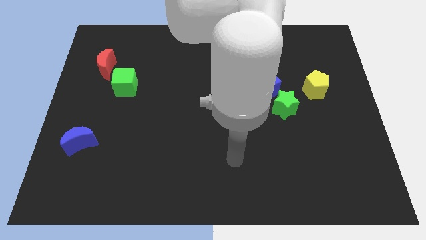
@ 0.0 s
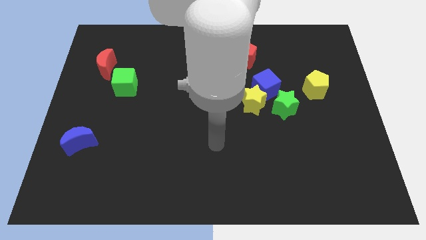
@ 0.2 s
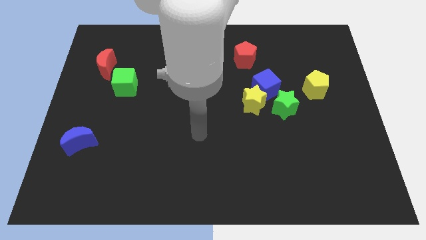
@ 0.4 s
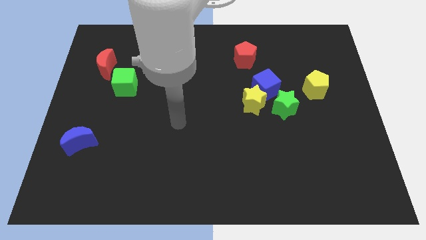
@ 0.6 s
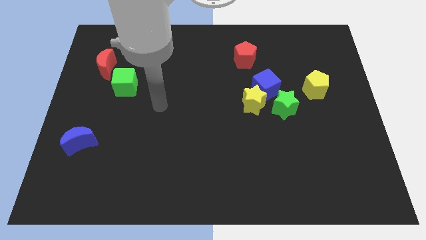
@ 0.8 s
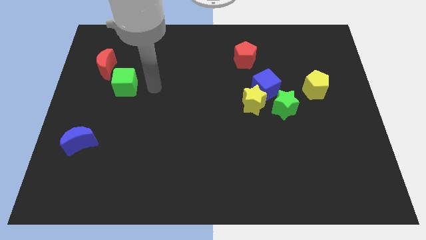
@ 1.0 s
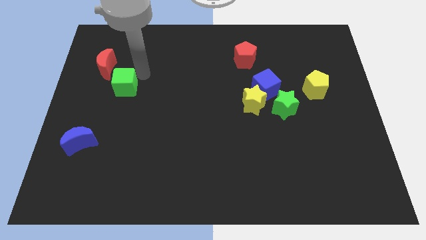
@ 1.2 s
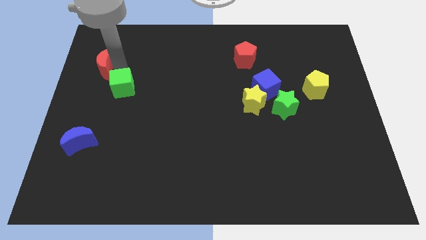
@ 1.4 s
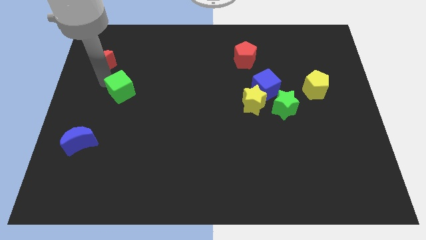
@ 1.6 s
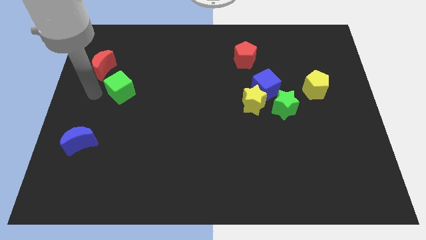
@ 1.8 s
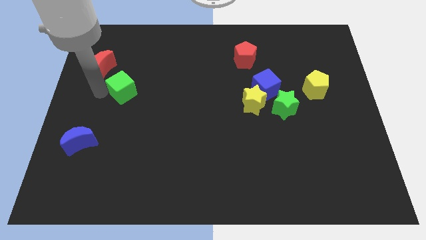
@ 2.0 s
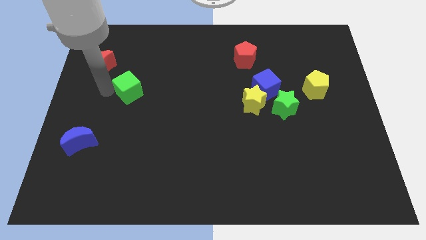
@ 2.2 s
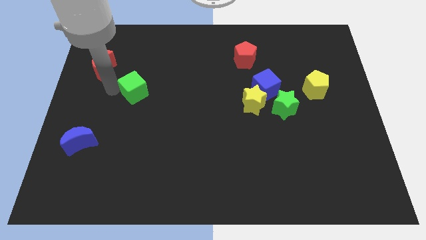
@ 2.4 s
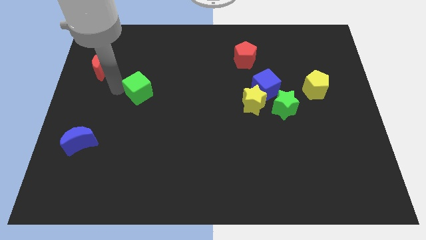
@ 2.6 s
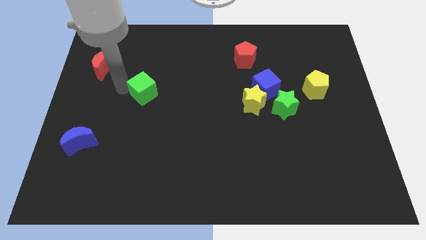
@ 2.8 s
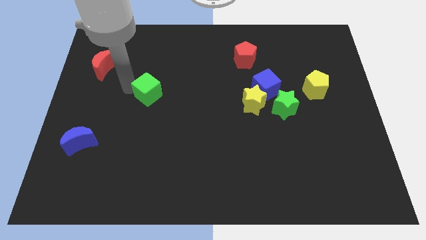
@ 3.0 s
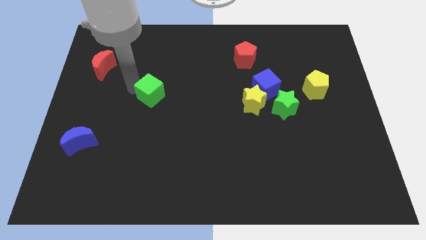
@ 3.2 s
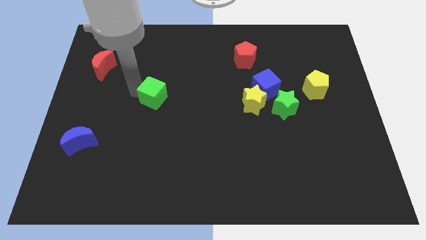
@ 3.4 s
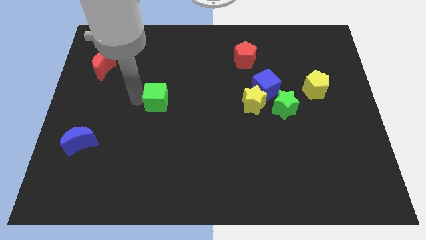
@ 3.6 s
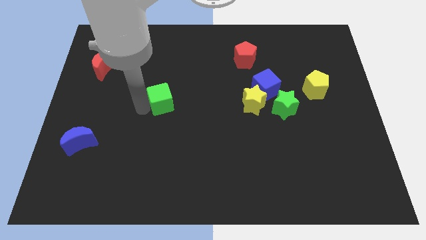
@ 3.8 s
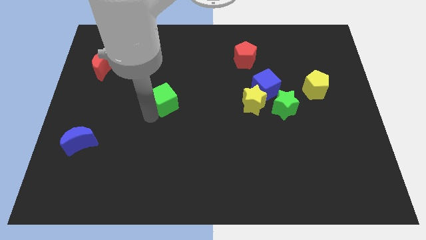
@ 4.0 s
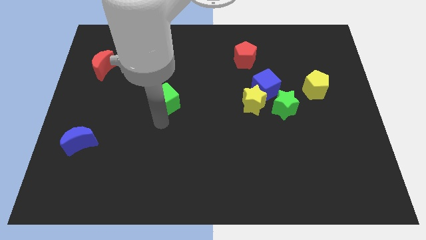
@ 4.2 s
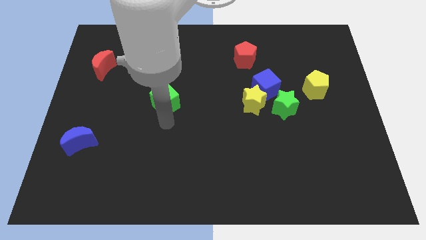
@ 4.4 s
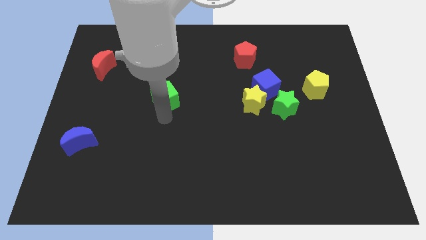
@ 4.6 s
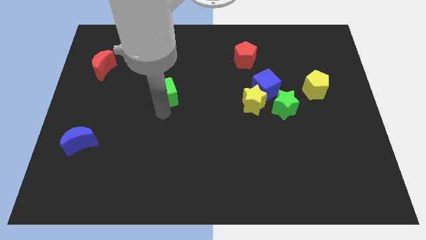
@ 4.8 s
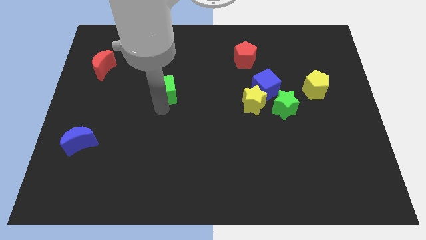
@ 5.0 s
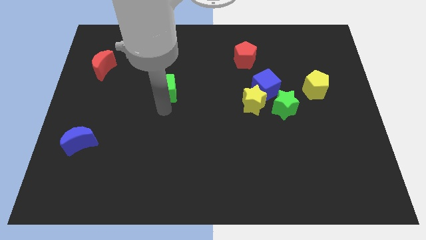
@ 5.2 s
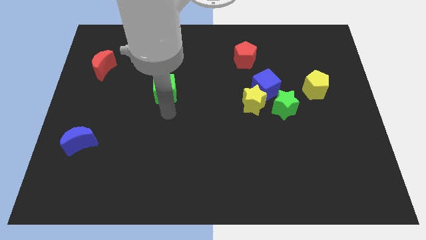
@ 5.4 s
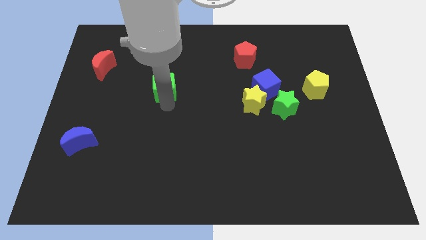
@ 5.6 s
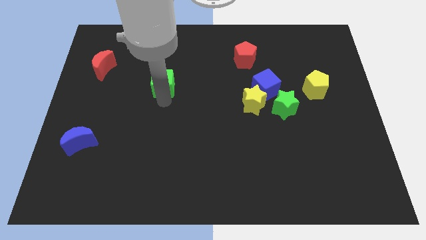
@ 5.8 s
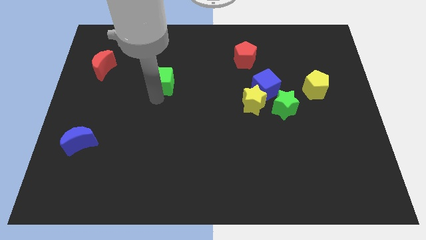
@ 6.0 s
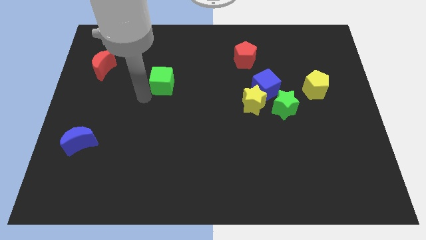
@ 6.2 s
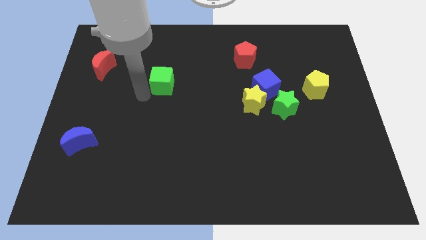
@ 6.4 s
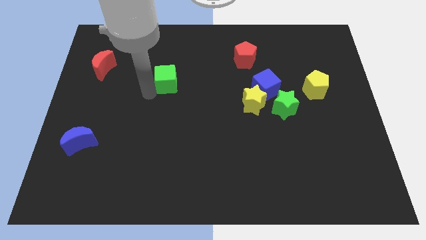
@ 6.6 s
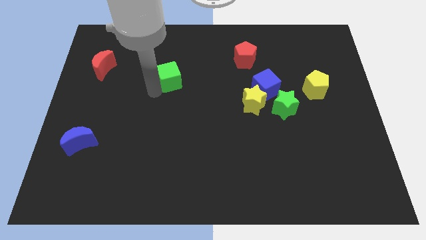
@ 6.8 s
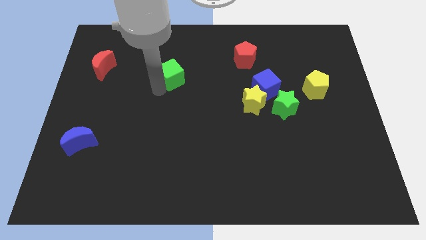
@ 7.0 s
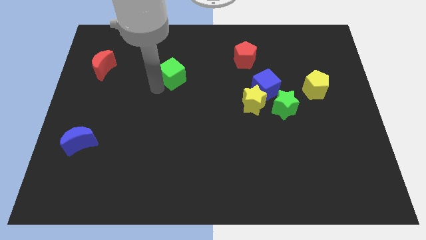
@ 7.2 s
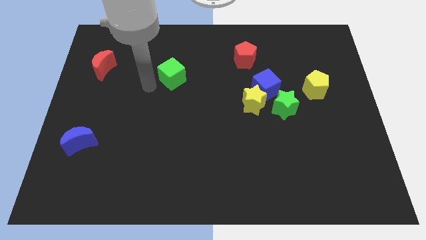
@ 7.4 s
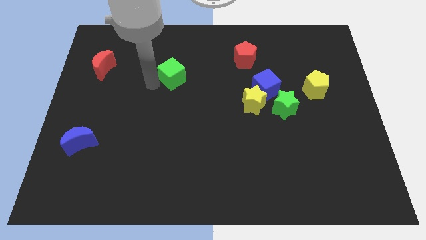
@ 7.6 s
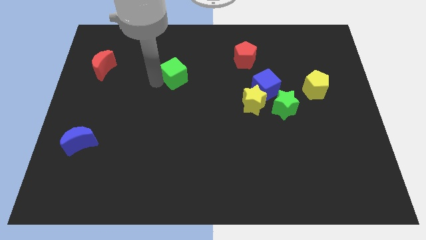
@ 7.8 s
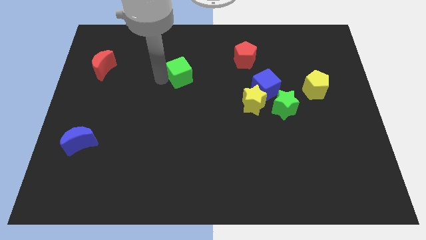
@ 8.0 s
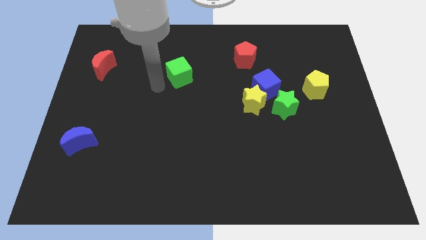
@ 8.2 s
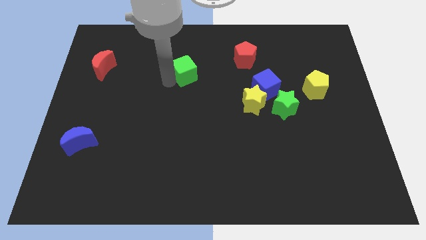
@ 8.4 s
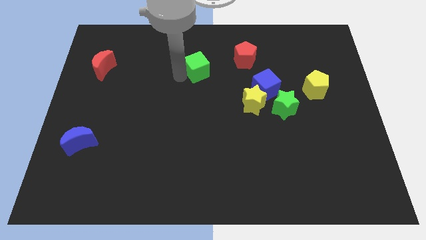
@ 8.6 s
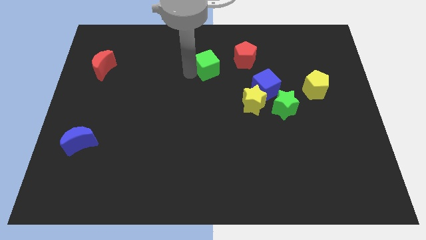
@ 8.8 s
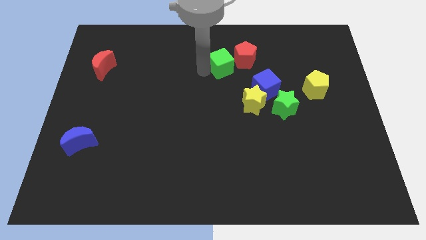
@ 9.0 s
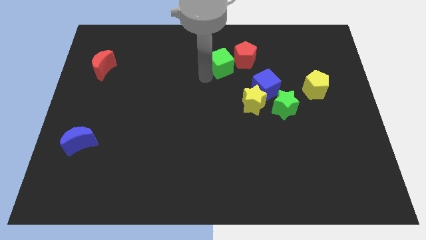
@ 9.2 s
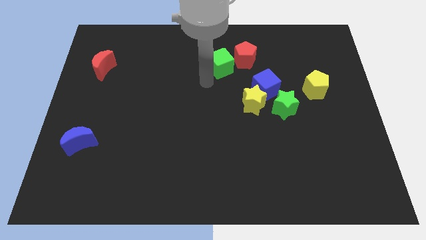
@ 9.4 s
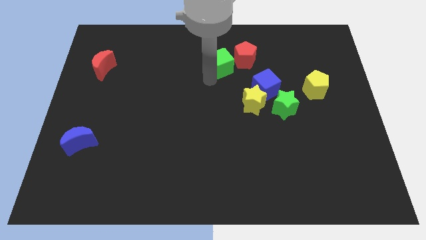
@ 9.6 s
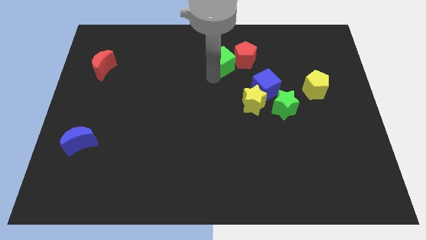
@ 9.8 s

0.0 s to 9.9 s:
slide the green cube to the red pentagon

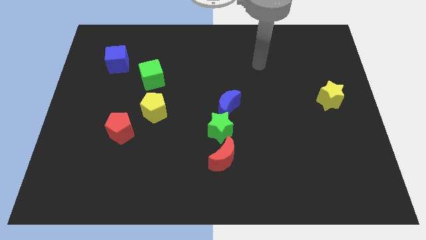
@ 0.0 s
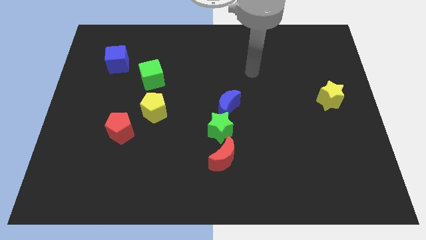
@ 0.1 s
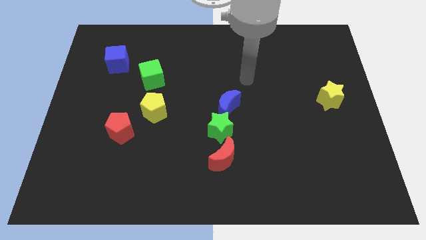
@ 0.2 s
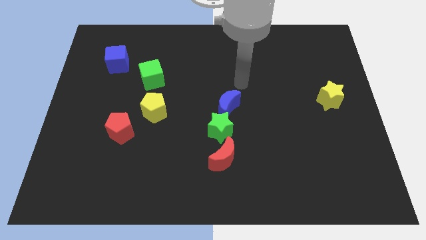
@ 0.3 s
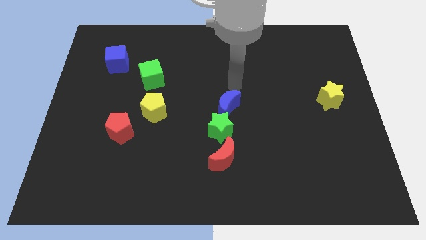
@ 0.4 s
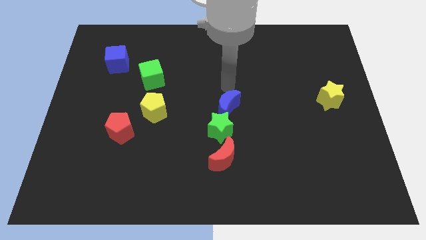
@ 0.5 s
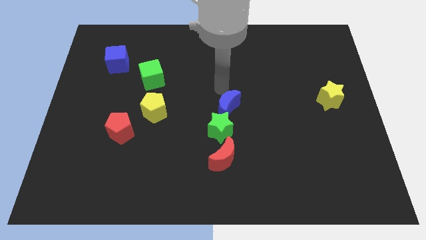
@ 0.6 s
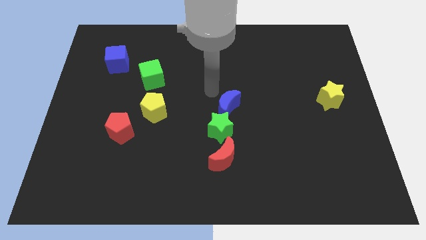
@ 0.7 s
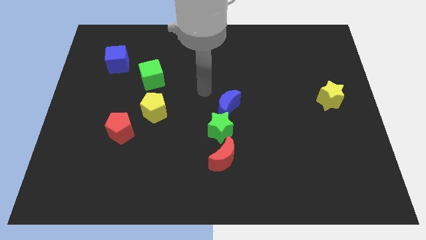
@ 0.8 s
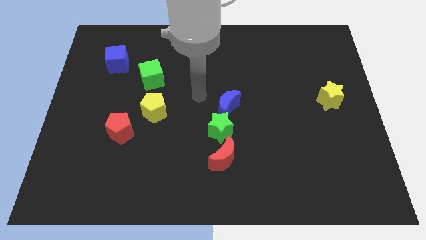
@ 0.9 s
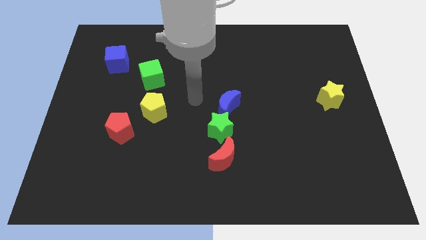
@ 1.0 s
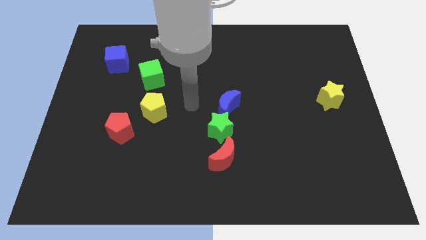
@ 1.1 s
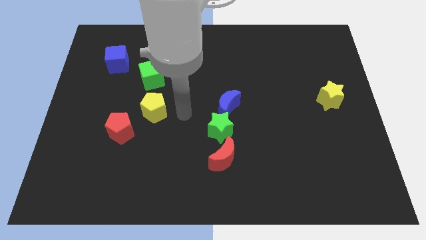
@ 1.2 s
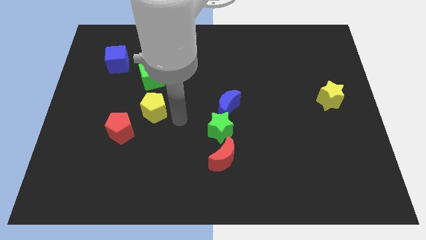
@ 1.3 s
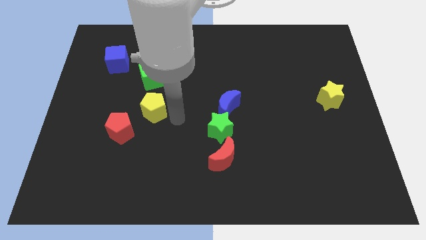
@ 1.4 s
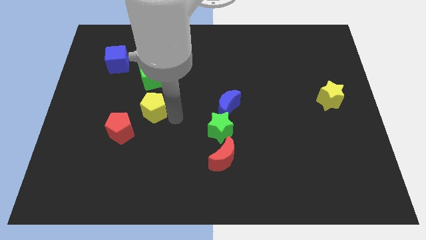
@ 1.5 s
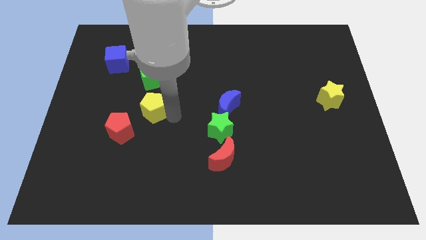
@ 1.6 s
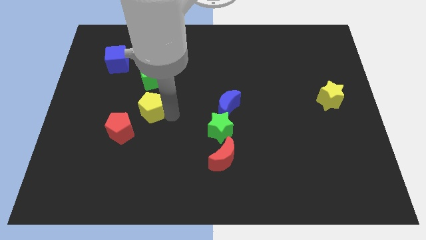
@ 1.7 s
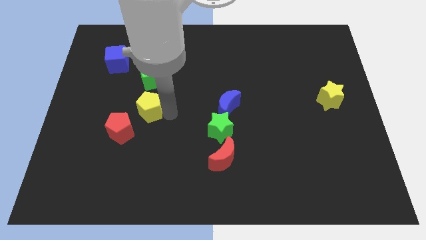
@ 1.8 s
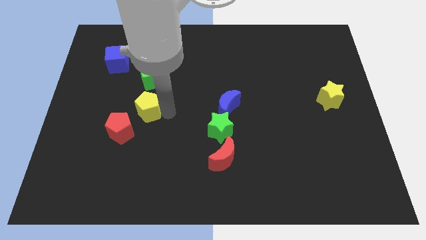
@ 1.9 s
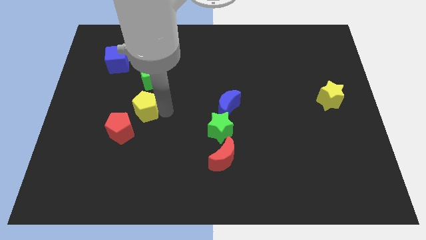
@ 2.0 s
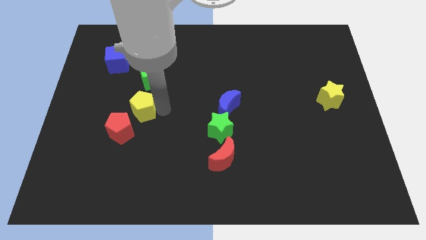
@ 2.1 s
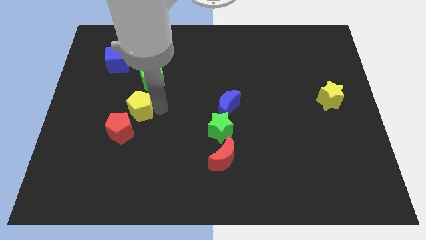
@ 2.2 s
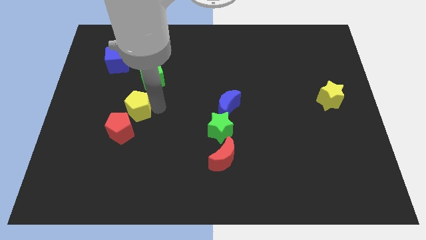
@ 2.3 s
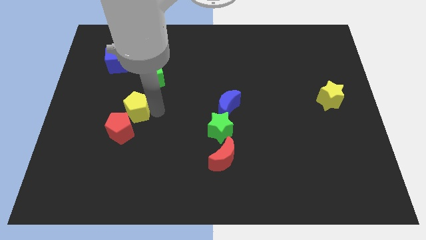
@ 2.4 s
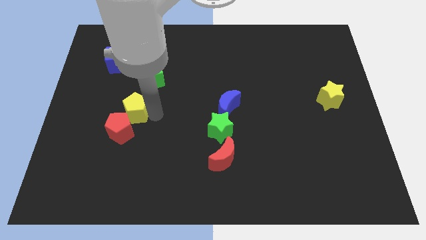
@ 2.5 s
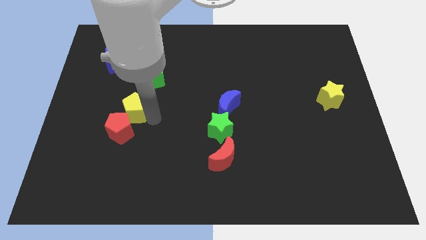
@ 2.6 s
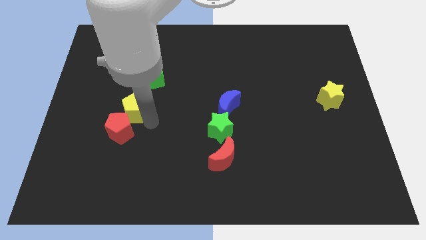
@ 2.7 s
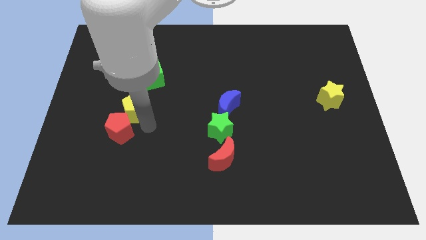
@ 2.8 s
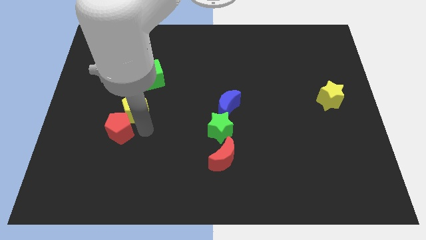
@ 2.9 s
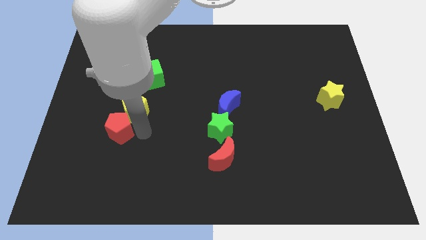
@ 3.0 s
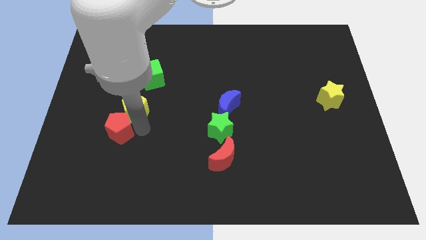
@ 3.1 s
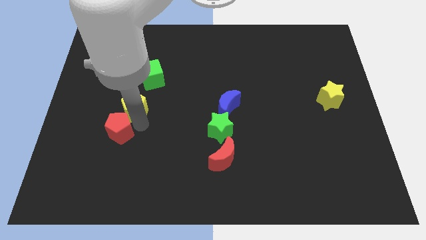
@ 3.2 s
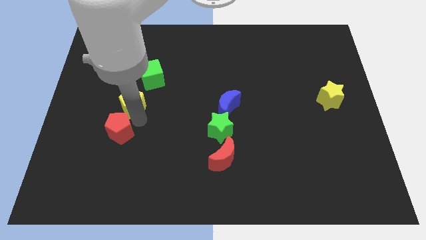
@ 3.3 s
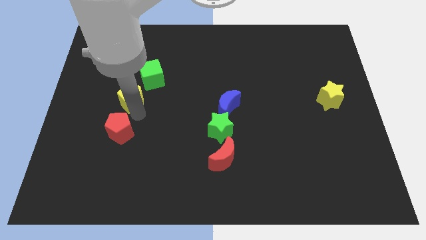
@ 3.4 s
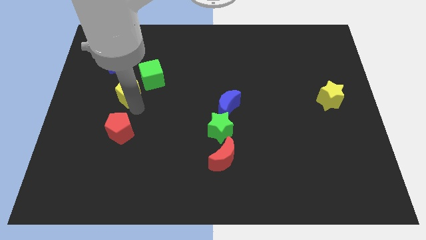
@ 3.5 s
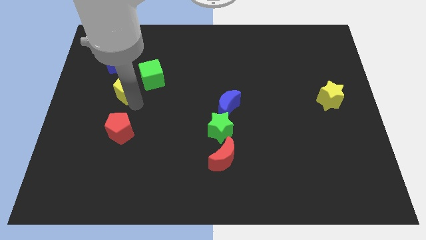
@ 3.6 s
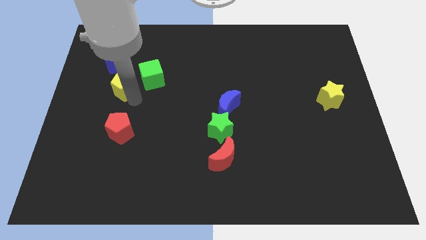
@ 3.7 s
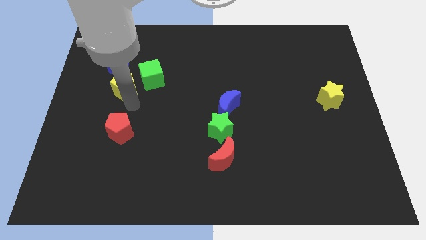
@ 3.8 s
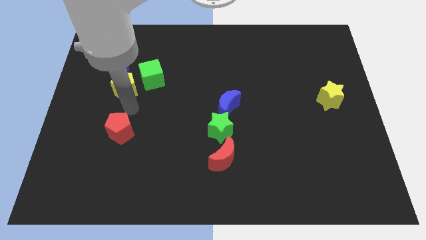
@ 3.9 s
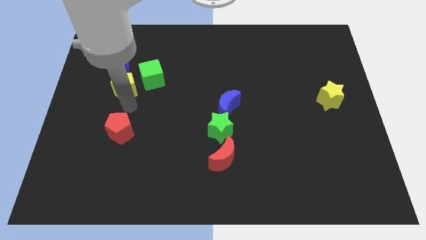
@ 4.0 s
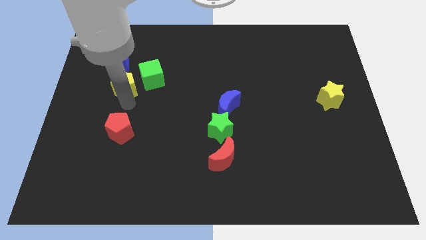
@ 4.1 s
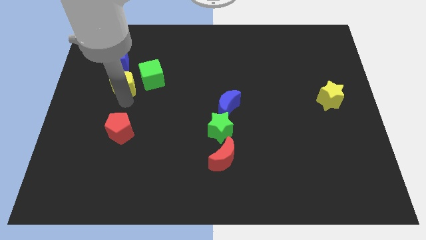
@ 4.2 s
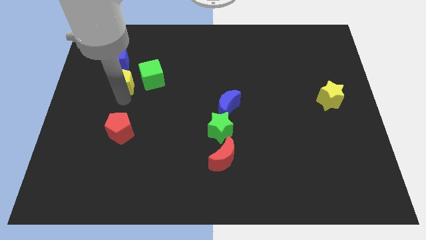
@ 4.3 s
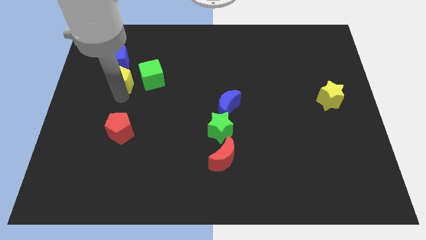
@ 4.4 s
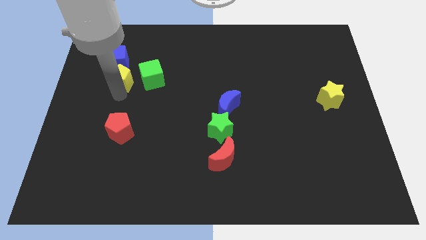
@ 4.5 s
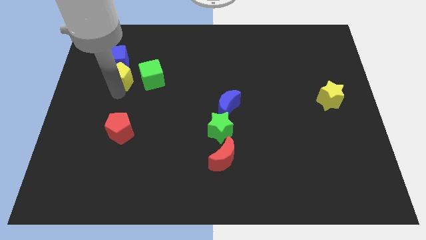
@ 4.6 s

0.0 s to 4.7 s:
push the yellow pentagon towards the blue cube
